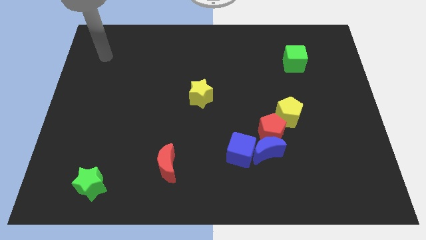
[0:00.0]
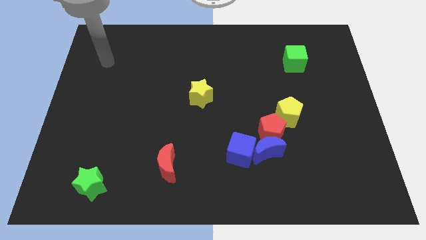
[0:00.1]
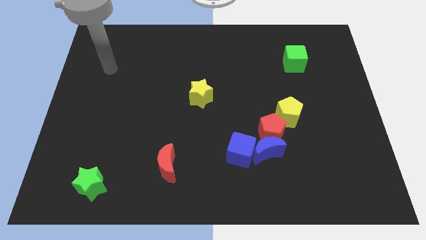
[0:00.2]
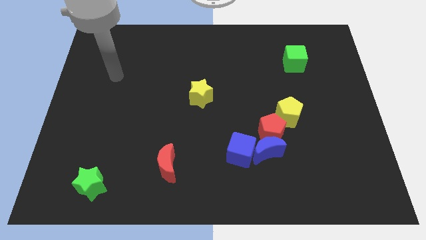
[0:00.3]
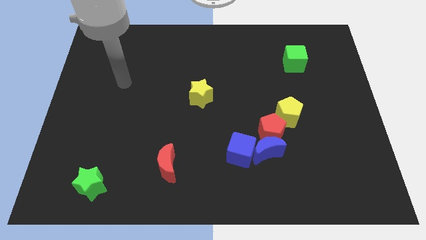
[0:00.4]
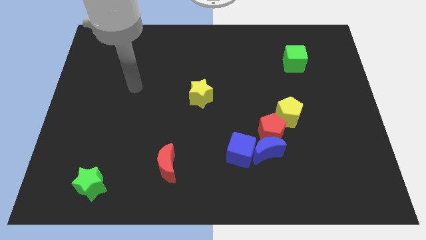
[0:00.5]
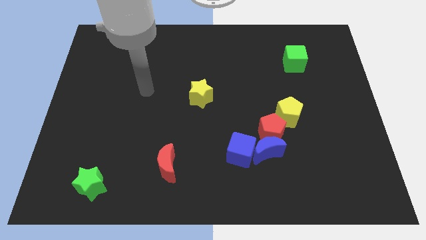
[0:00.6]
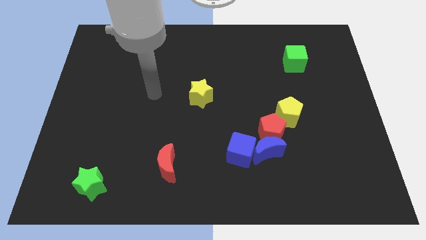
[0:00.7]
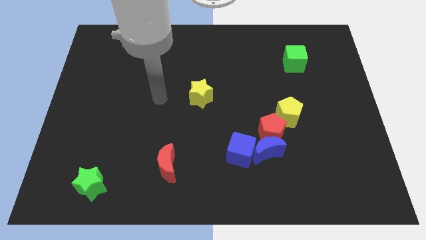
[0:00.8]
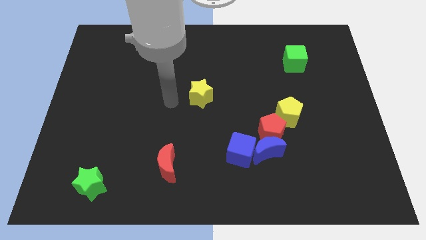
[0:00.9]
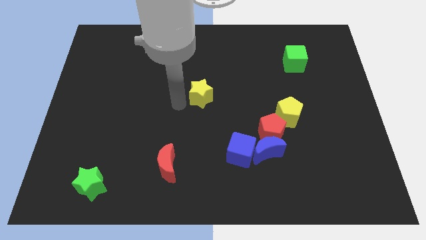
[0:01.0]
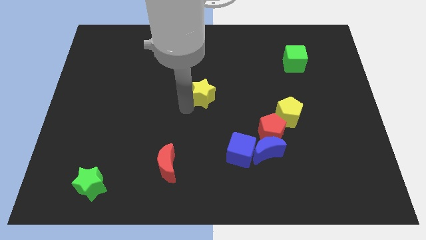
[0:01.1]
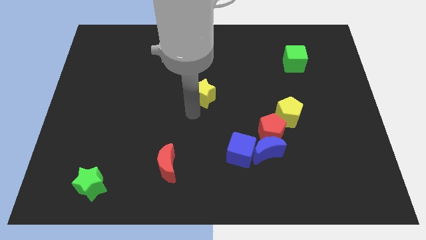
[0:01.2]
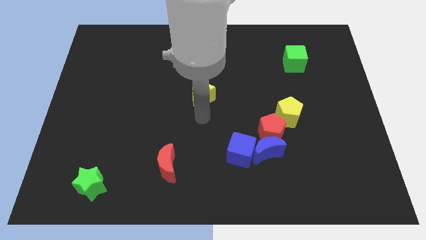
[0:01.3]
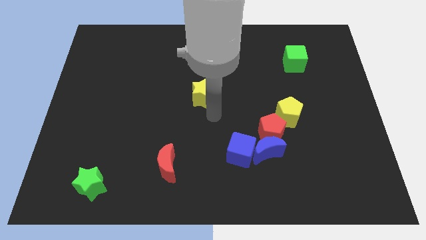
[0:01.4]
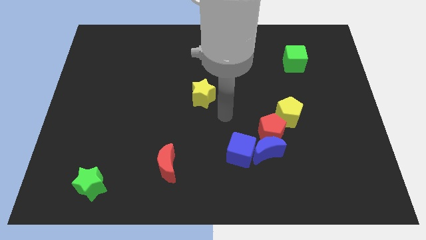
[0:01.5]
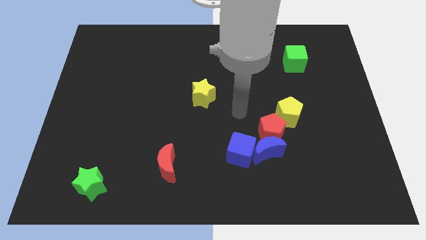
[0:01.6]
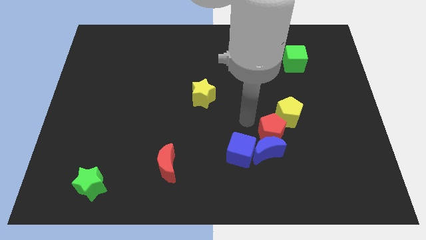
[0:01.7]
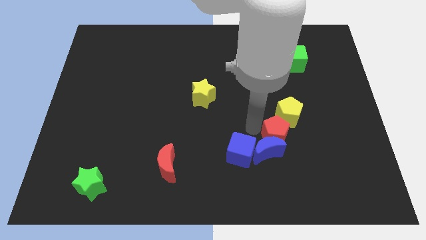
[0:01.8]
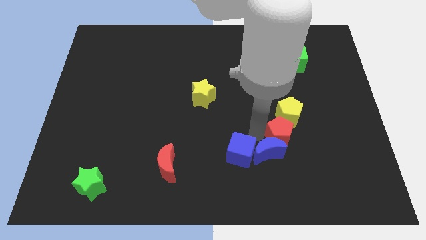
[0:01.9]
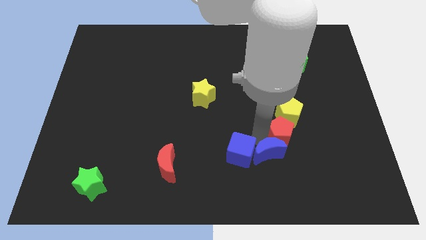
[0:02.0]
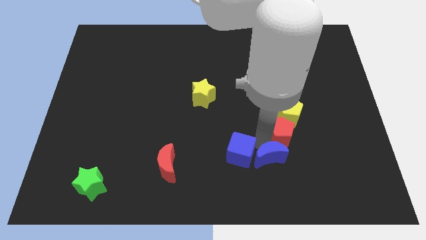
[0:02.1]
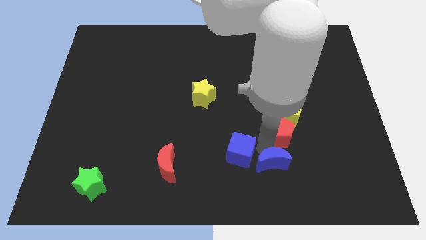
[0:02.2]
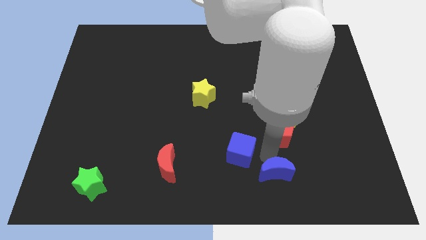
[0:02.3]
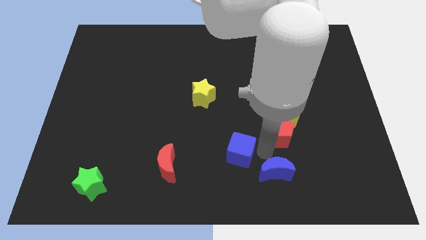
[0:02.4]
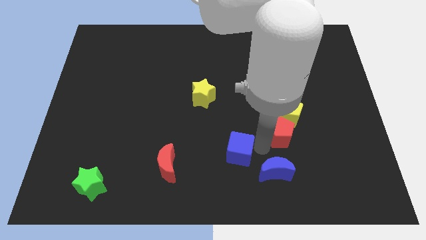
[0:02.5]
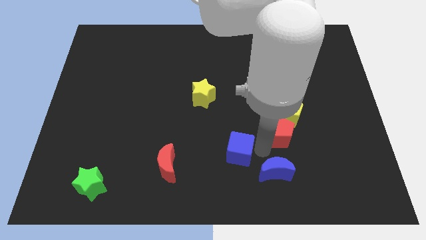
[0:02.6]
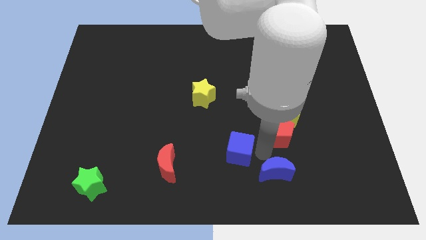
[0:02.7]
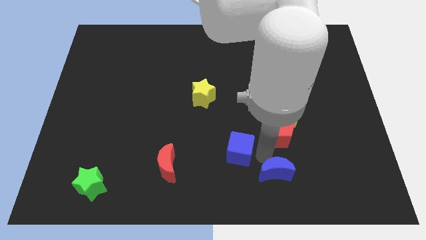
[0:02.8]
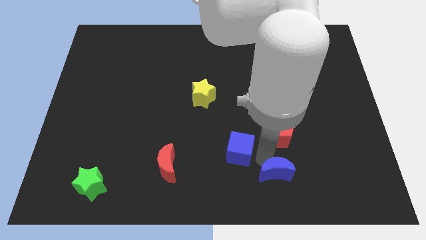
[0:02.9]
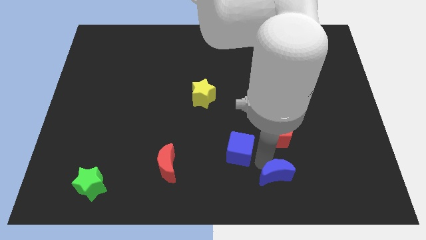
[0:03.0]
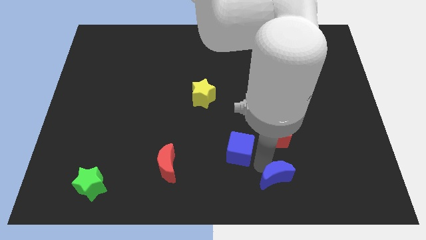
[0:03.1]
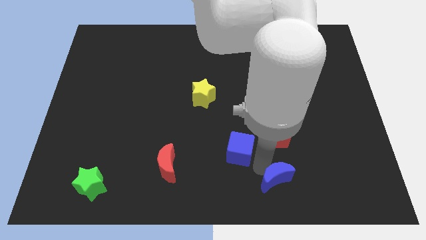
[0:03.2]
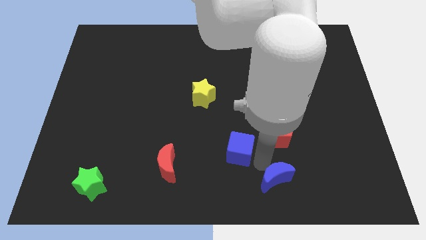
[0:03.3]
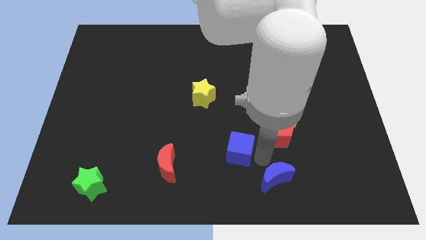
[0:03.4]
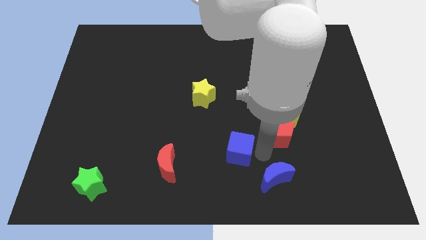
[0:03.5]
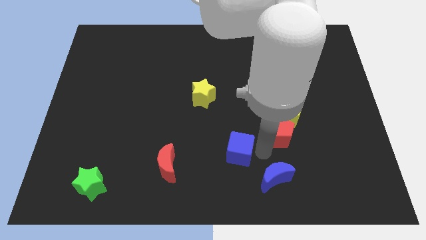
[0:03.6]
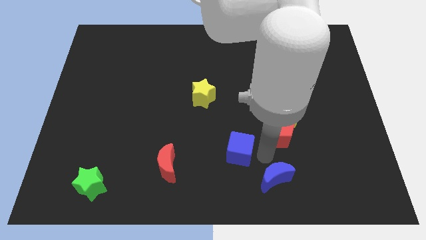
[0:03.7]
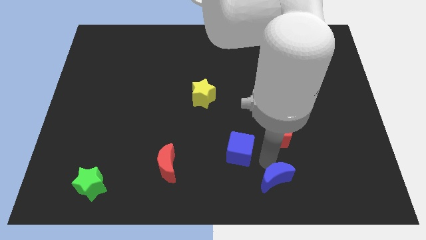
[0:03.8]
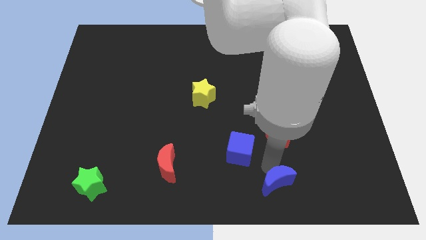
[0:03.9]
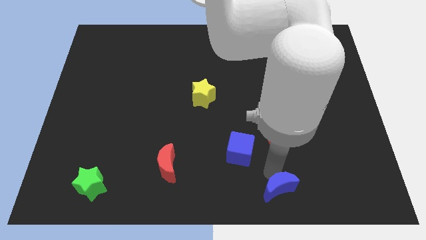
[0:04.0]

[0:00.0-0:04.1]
separate the blue moon from the red pentagon and blue cube

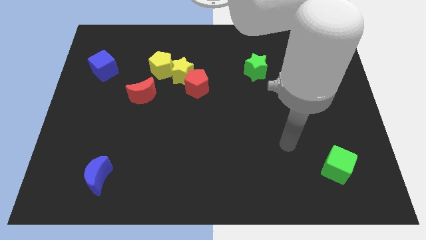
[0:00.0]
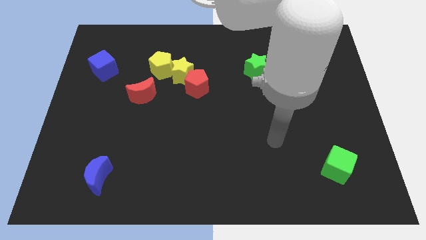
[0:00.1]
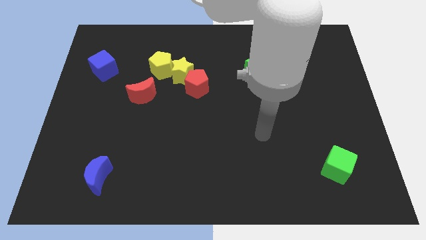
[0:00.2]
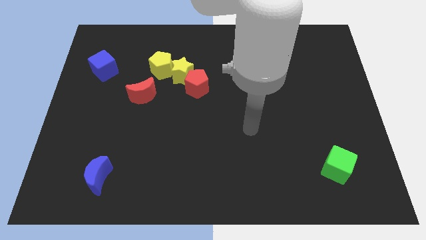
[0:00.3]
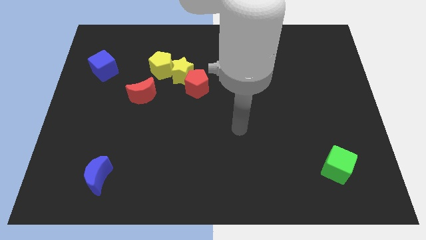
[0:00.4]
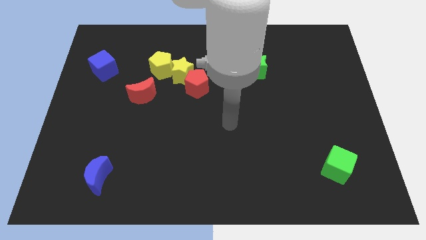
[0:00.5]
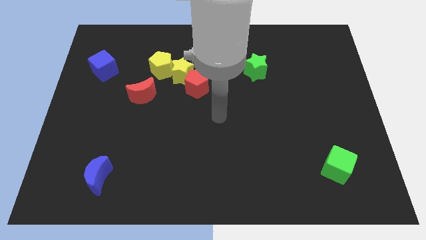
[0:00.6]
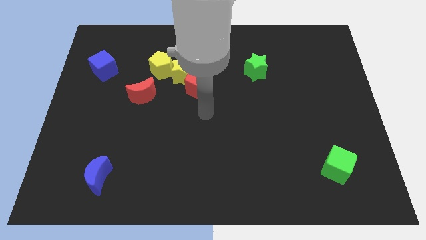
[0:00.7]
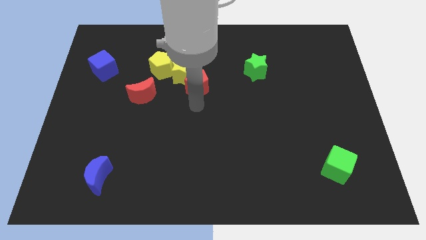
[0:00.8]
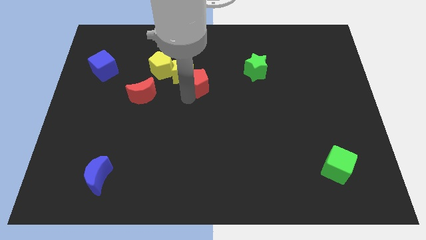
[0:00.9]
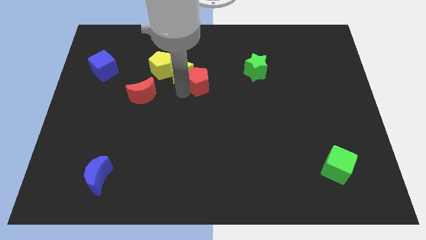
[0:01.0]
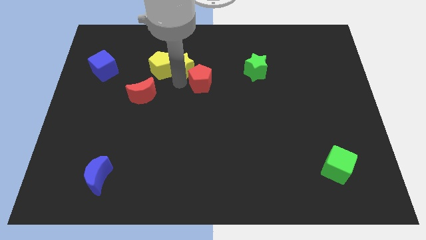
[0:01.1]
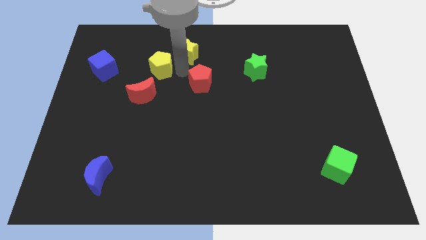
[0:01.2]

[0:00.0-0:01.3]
separate the red pentagon from the yellow star

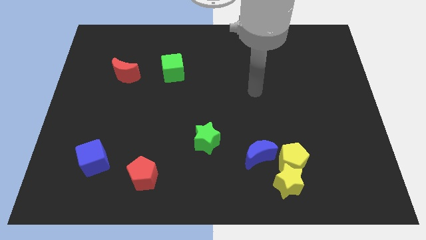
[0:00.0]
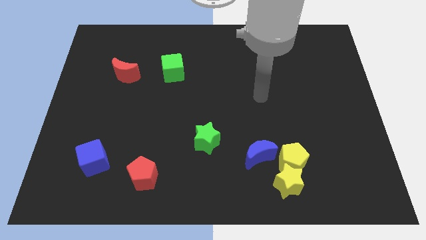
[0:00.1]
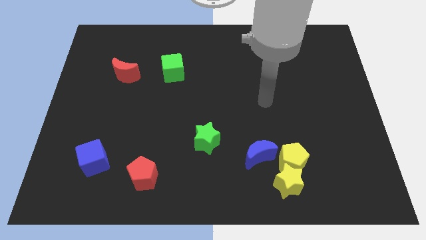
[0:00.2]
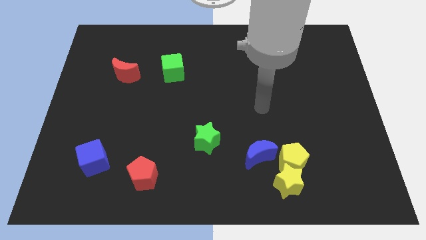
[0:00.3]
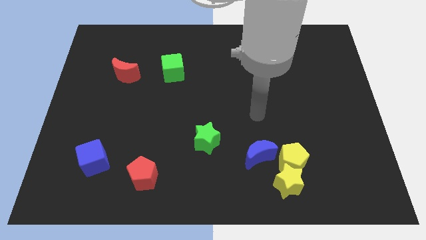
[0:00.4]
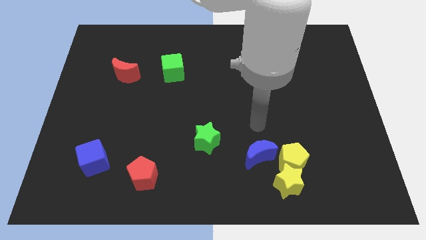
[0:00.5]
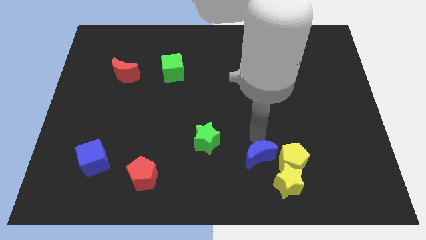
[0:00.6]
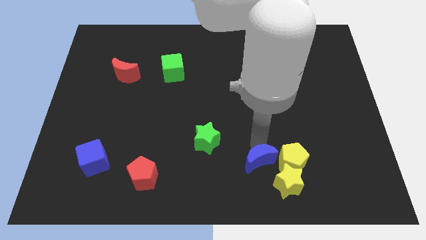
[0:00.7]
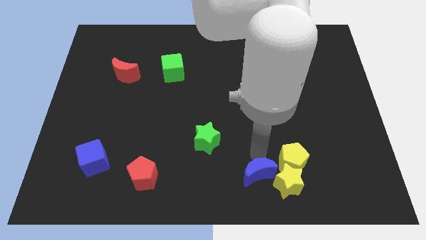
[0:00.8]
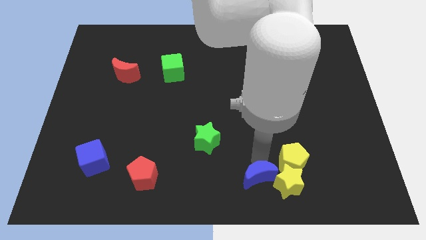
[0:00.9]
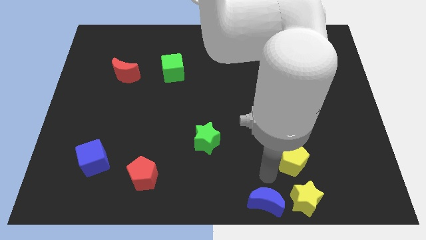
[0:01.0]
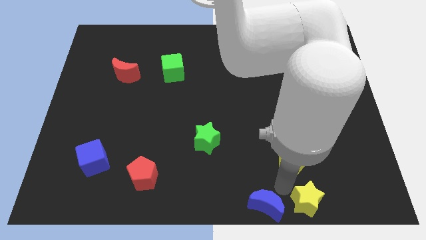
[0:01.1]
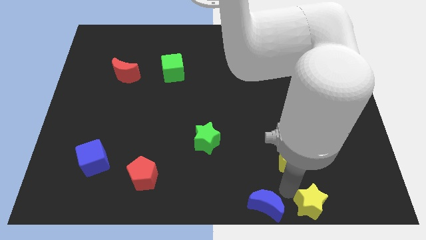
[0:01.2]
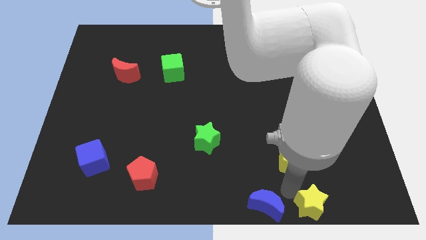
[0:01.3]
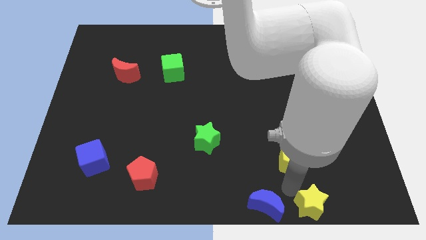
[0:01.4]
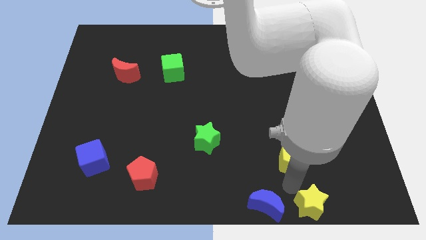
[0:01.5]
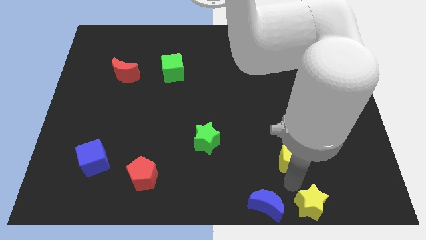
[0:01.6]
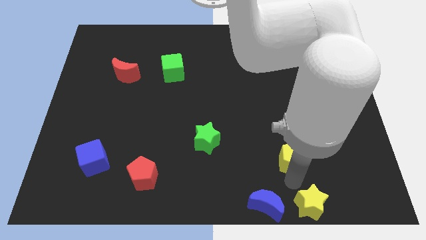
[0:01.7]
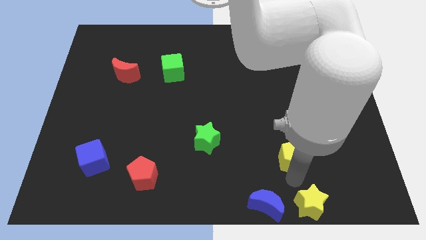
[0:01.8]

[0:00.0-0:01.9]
pull the yellow pentagon apart from the yellow star and blue moon

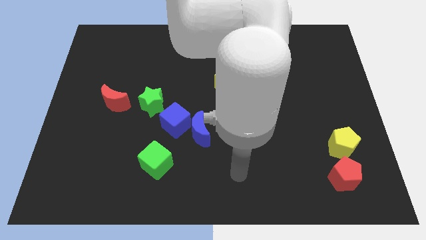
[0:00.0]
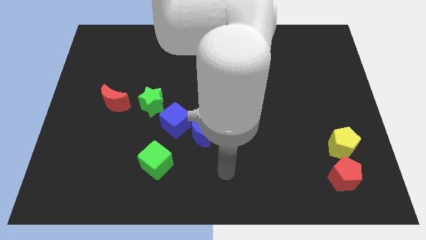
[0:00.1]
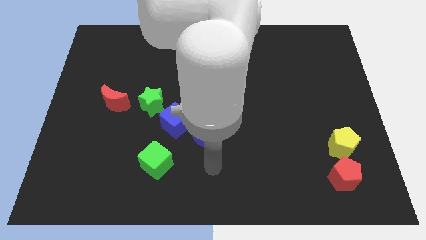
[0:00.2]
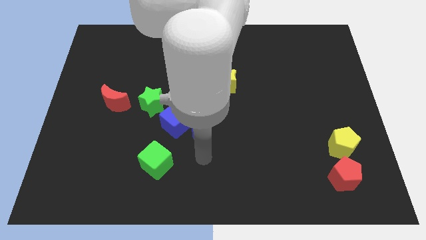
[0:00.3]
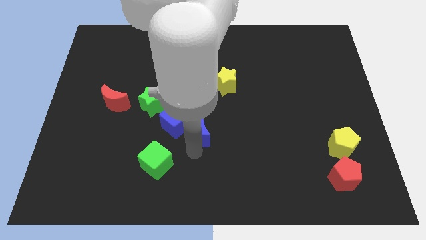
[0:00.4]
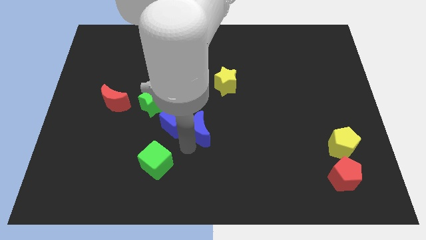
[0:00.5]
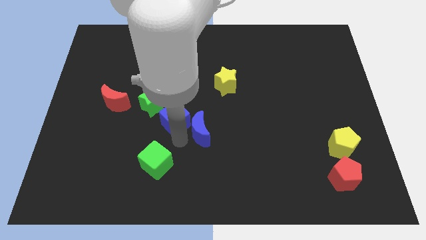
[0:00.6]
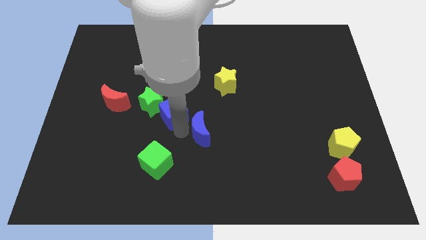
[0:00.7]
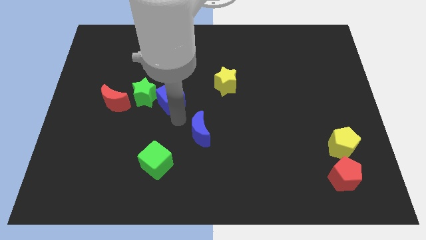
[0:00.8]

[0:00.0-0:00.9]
pull the blue moon apart from the blue cube

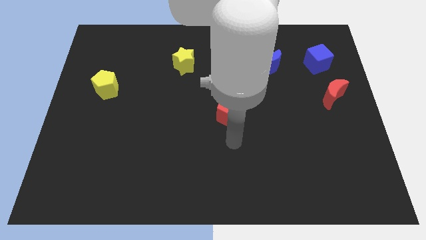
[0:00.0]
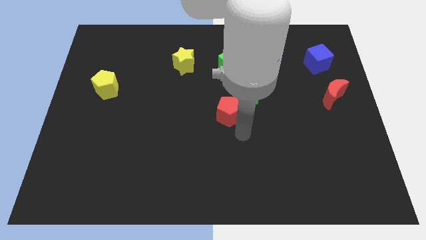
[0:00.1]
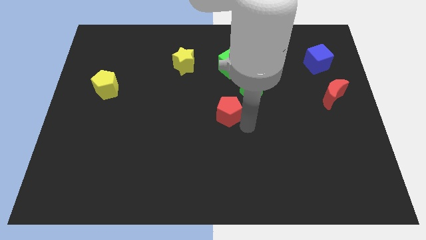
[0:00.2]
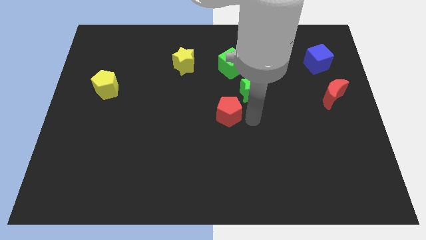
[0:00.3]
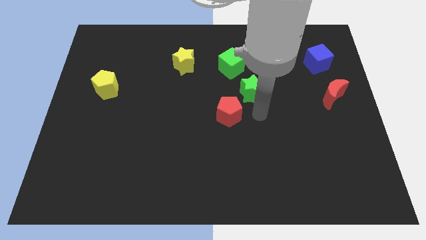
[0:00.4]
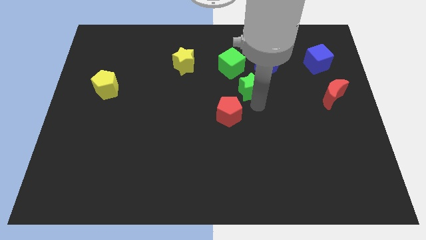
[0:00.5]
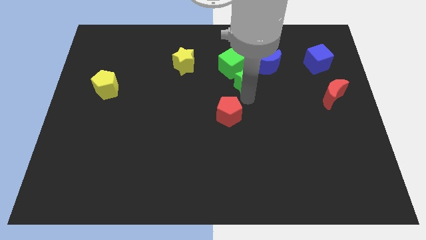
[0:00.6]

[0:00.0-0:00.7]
pull the red pentagon apart from the green star

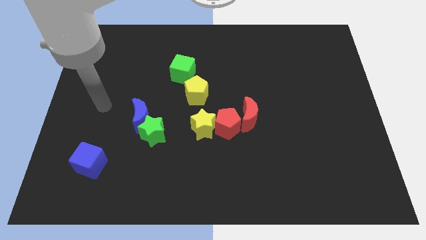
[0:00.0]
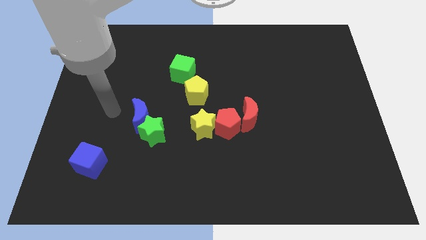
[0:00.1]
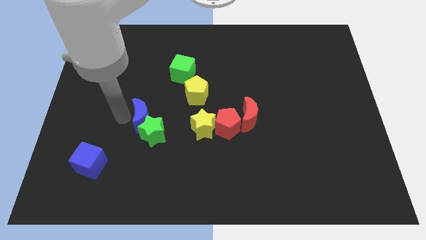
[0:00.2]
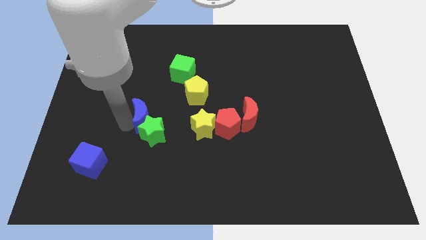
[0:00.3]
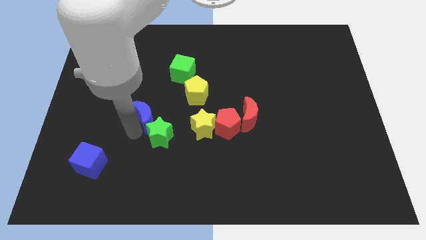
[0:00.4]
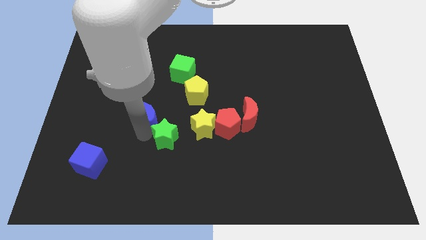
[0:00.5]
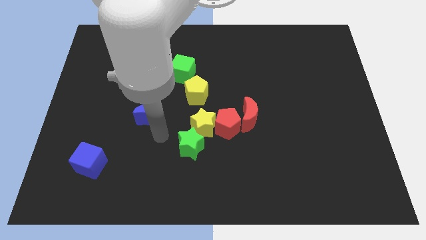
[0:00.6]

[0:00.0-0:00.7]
move the blue moon away from the green star
